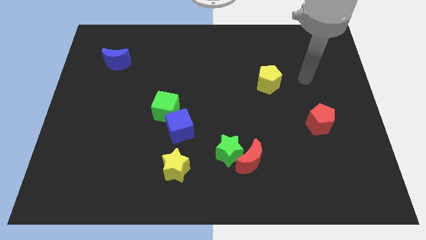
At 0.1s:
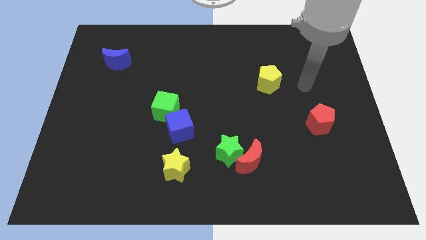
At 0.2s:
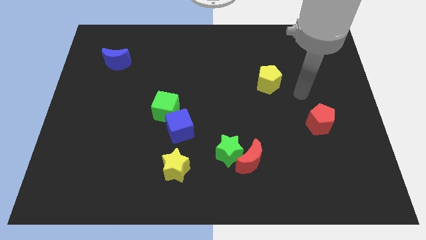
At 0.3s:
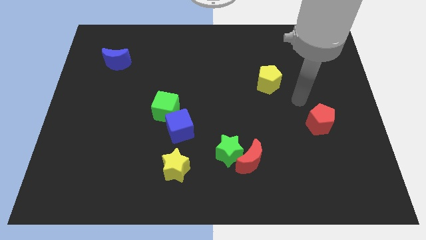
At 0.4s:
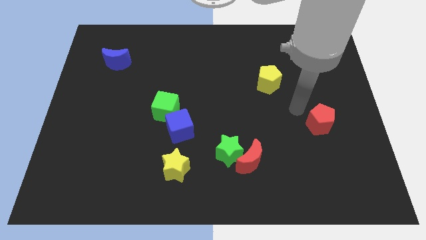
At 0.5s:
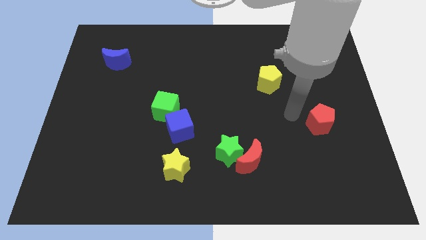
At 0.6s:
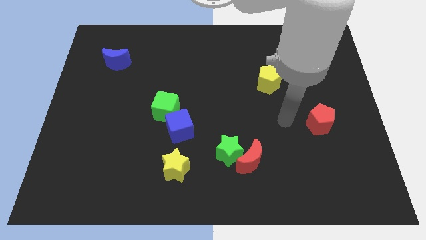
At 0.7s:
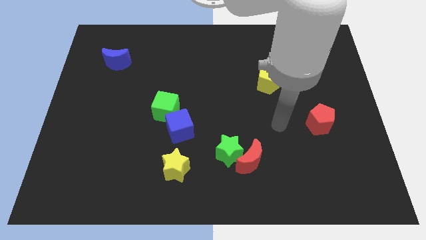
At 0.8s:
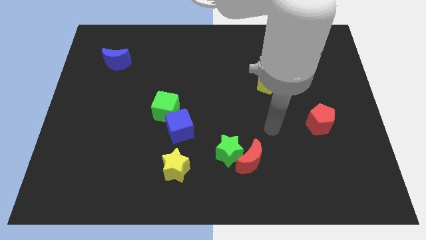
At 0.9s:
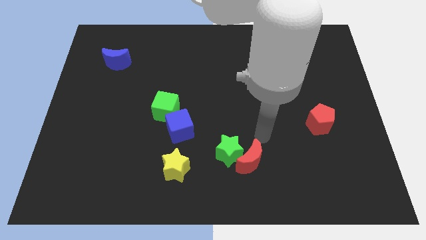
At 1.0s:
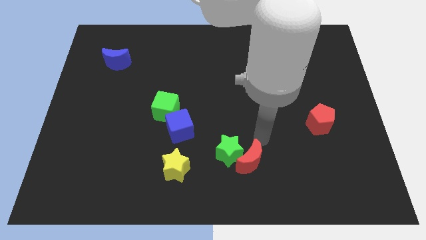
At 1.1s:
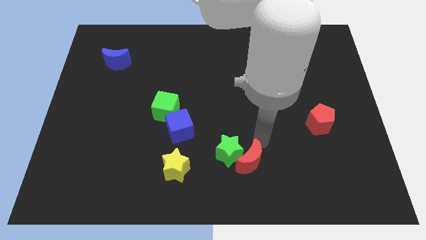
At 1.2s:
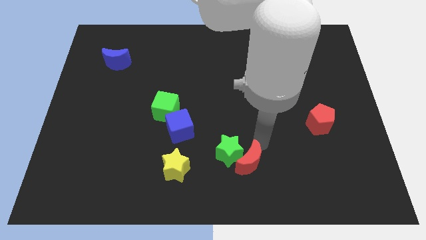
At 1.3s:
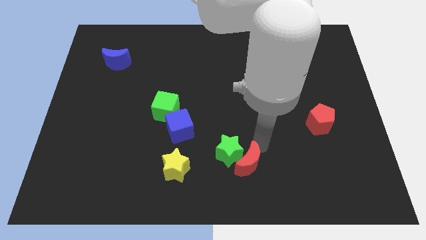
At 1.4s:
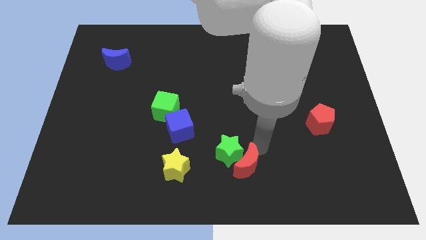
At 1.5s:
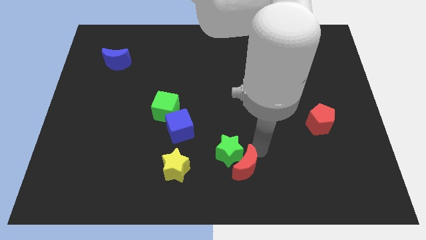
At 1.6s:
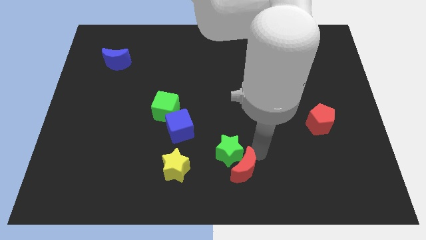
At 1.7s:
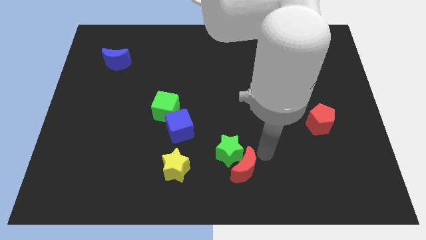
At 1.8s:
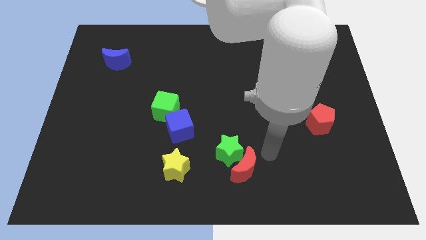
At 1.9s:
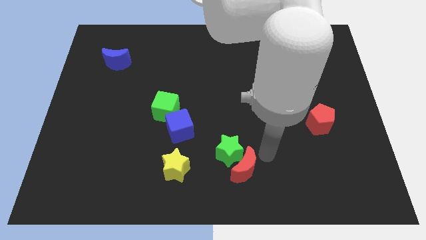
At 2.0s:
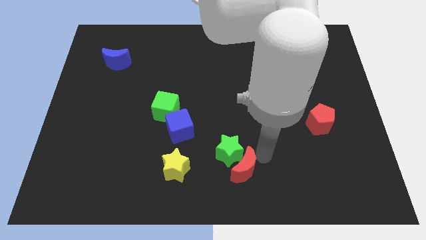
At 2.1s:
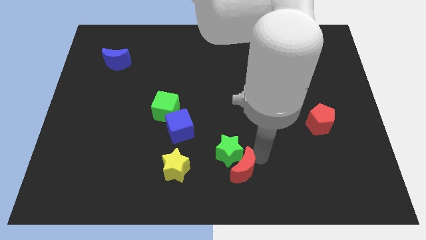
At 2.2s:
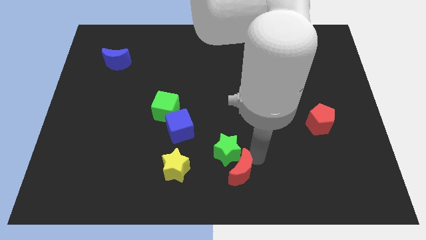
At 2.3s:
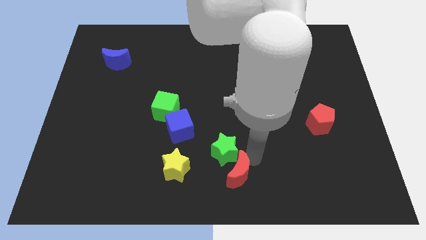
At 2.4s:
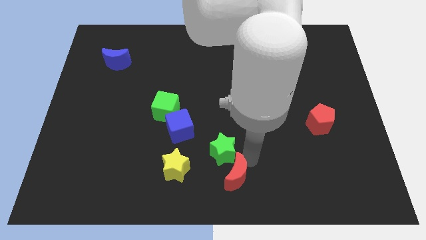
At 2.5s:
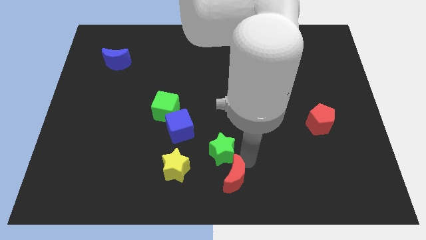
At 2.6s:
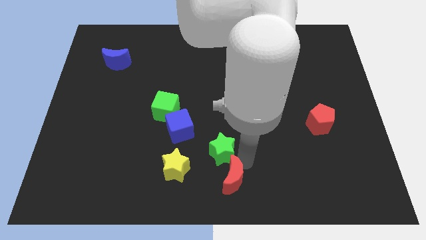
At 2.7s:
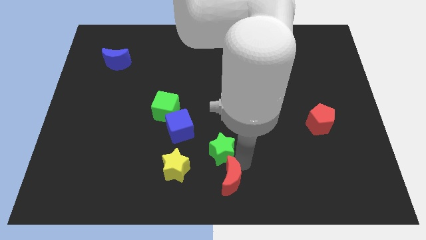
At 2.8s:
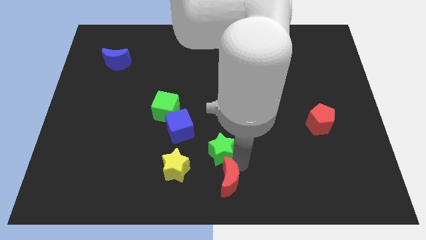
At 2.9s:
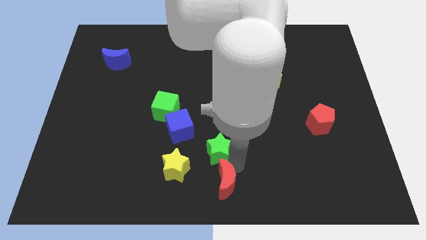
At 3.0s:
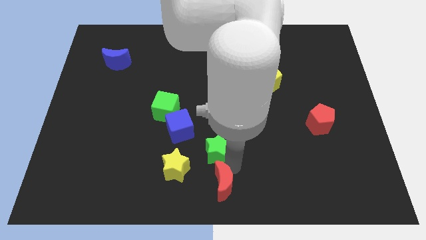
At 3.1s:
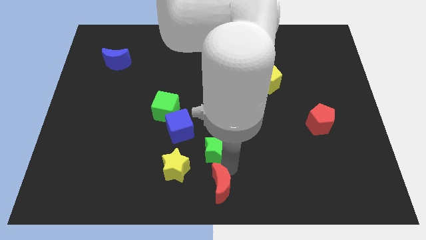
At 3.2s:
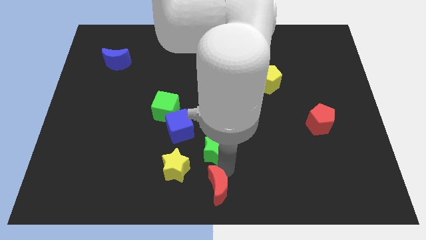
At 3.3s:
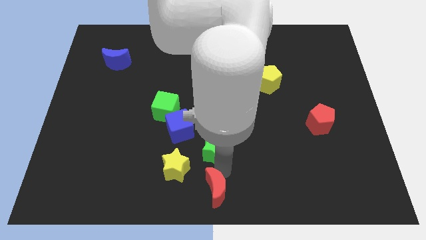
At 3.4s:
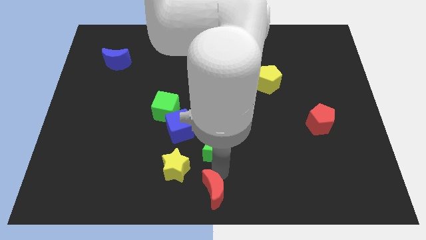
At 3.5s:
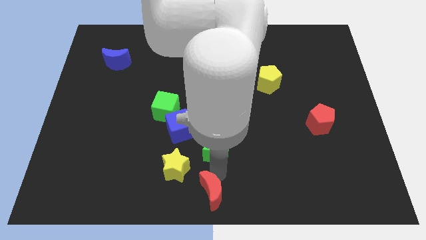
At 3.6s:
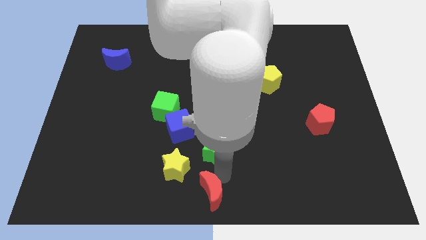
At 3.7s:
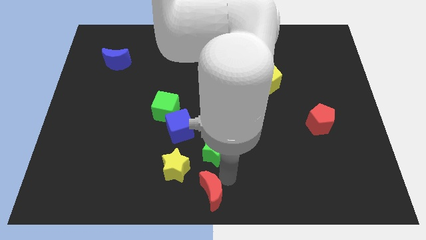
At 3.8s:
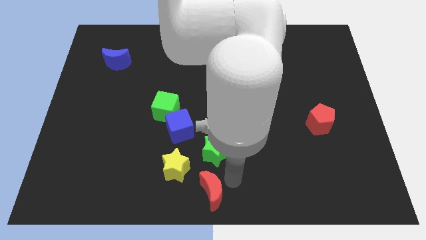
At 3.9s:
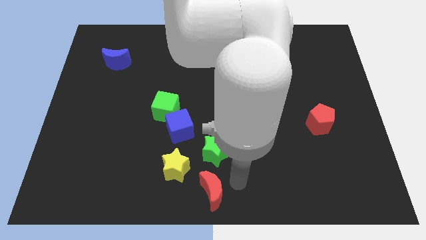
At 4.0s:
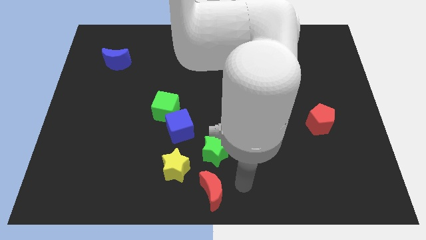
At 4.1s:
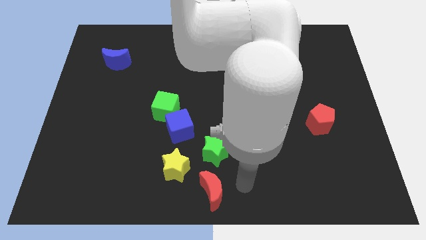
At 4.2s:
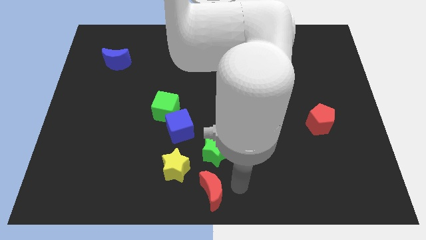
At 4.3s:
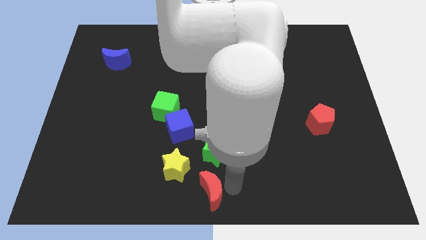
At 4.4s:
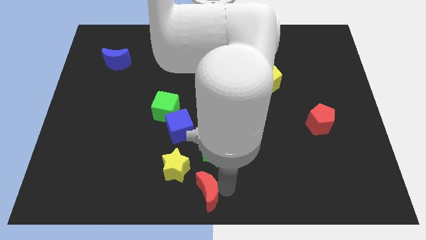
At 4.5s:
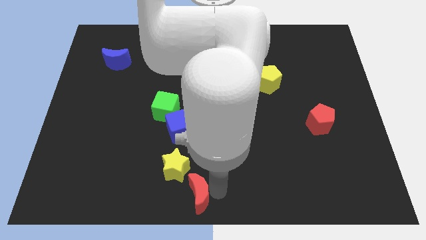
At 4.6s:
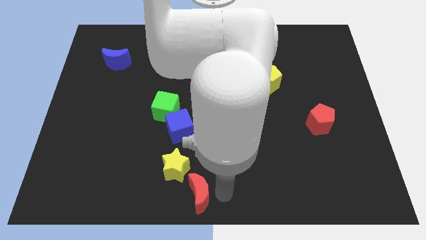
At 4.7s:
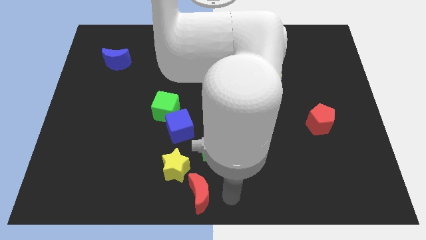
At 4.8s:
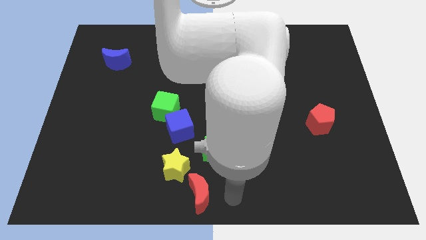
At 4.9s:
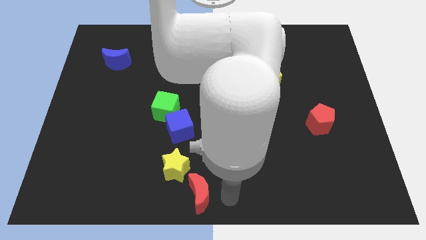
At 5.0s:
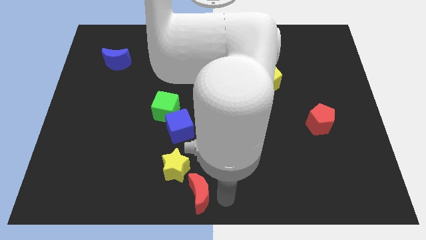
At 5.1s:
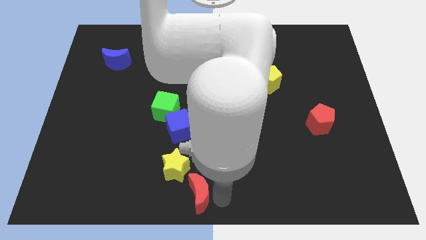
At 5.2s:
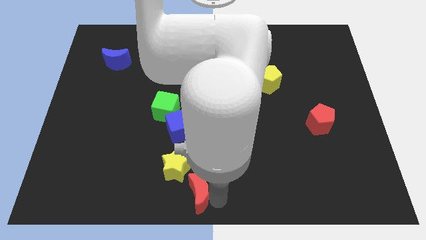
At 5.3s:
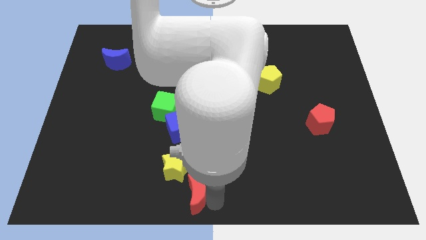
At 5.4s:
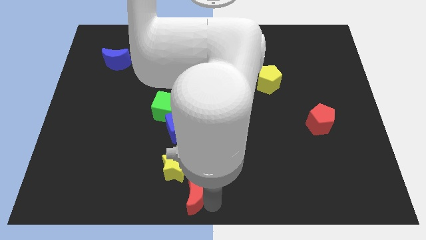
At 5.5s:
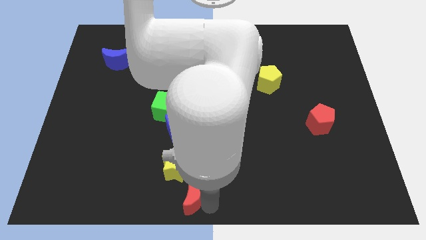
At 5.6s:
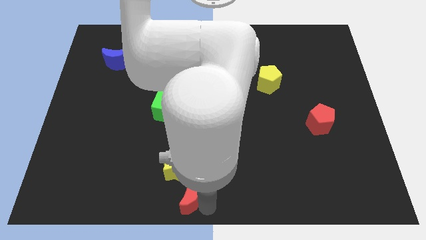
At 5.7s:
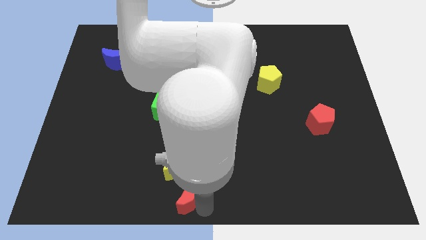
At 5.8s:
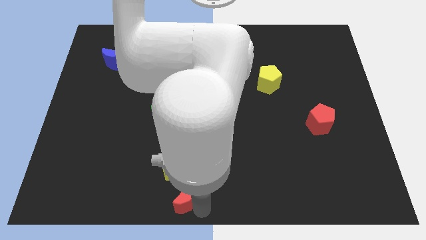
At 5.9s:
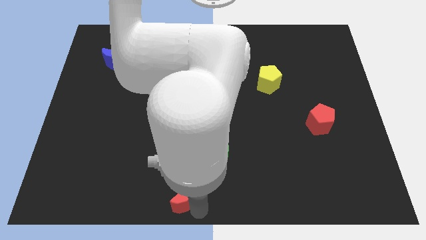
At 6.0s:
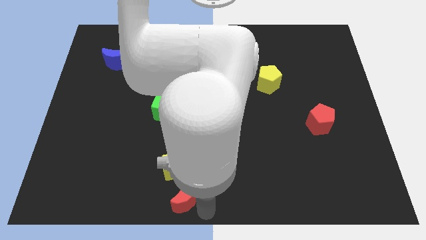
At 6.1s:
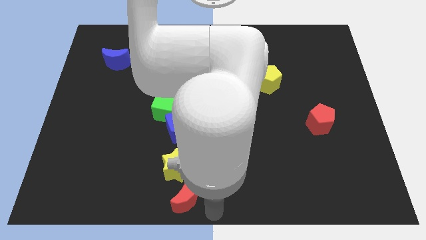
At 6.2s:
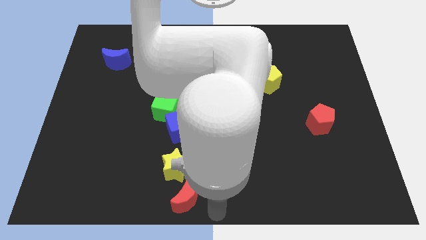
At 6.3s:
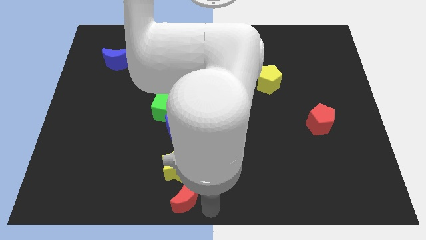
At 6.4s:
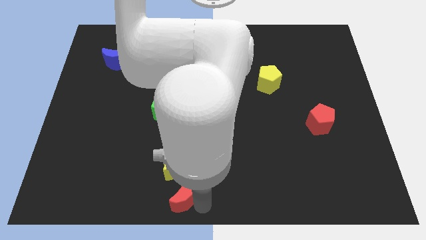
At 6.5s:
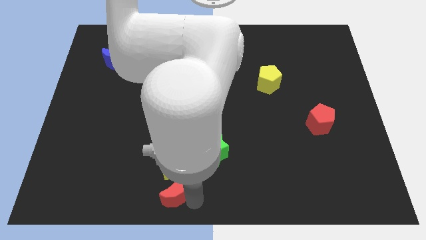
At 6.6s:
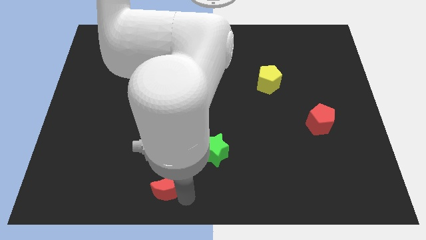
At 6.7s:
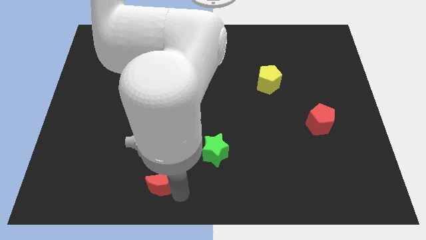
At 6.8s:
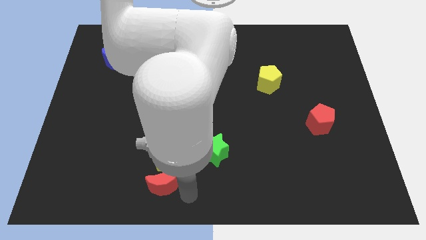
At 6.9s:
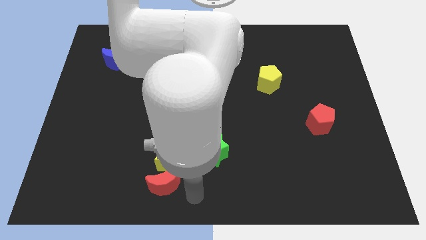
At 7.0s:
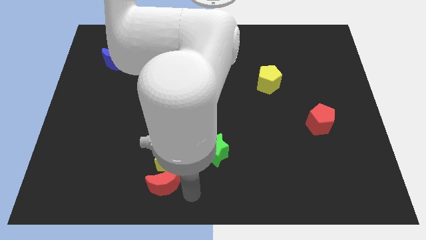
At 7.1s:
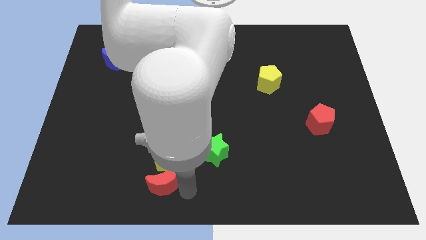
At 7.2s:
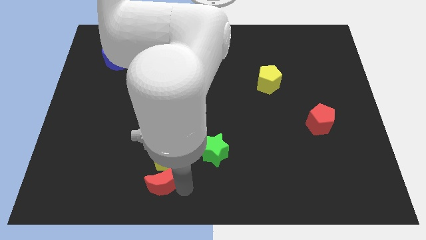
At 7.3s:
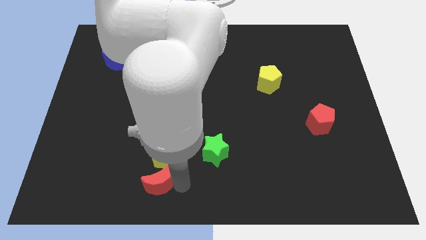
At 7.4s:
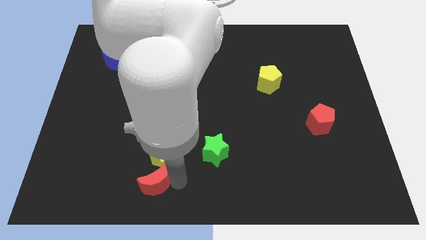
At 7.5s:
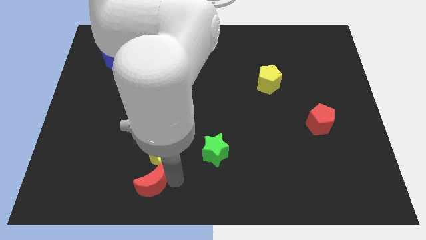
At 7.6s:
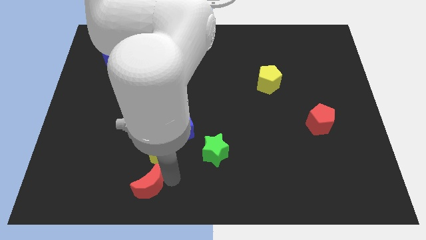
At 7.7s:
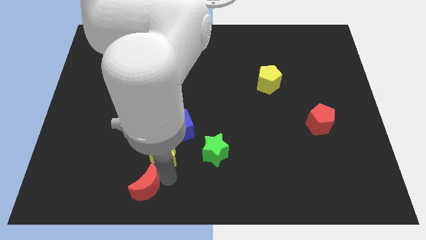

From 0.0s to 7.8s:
slide the red moon left

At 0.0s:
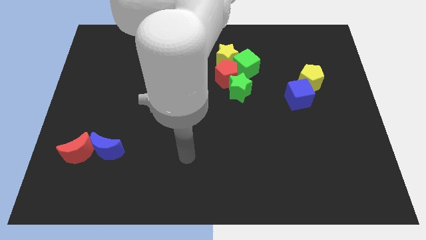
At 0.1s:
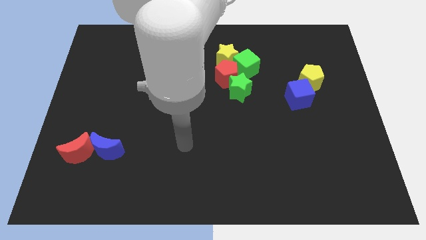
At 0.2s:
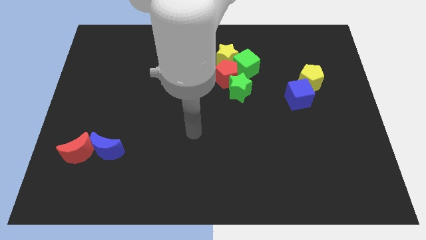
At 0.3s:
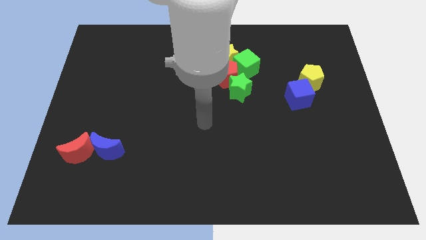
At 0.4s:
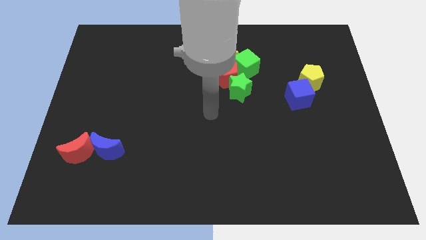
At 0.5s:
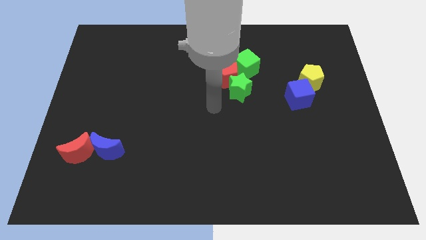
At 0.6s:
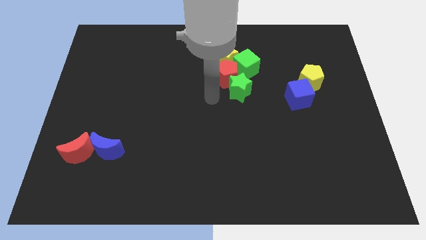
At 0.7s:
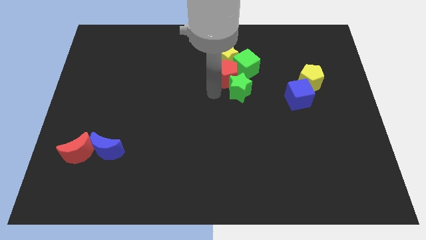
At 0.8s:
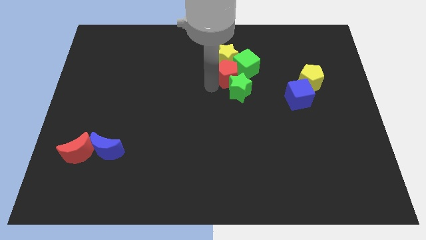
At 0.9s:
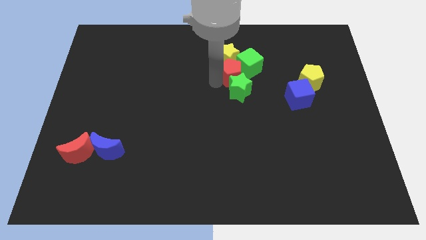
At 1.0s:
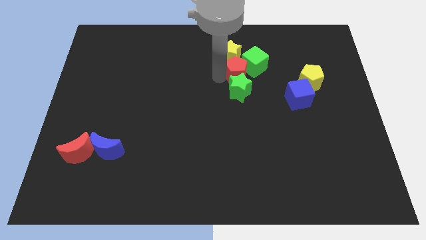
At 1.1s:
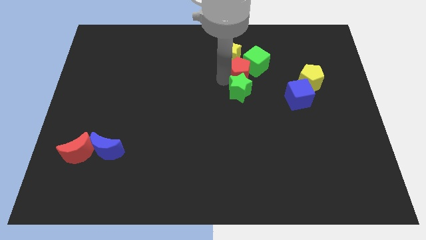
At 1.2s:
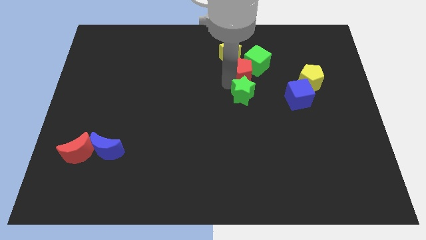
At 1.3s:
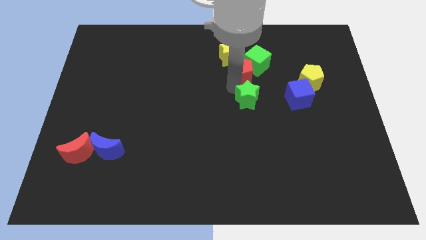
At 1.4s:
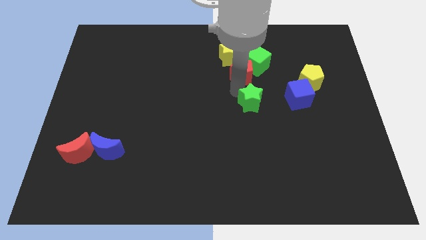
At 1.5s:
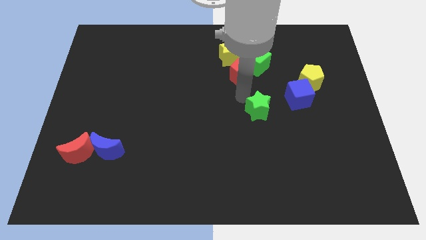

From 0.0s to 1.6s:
move the green star diagonally downwards and to the right a little bit
